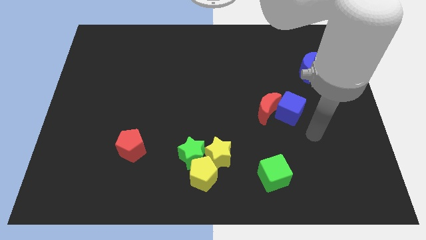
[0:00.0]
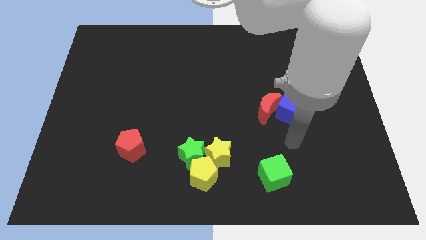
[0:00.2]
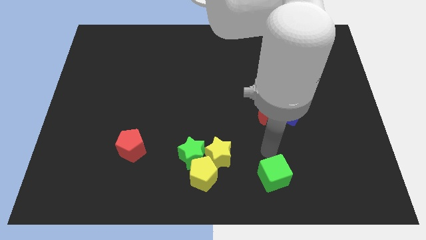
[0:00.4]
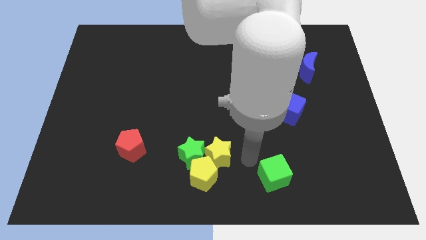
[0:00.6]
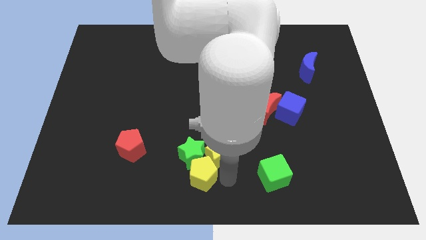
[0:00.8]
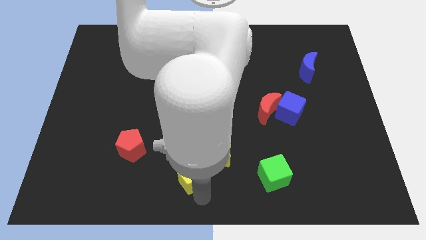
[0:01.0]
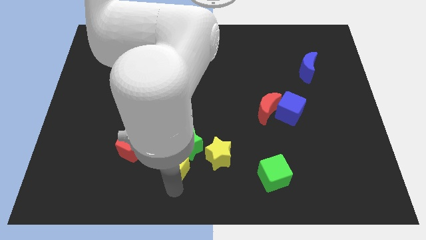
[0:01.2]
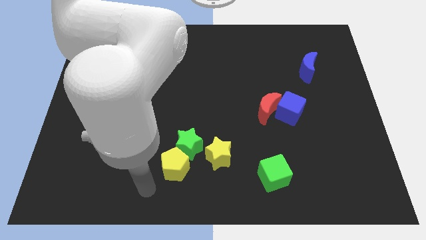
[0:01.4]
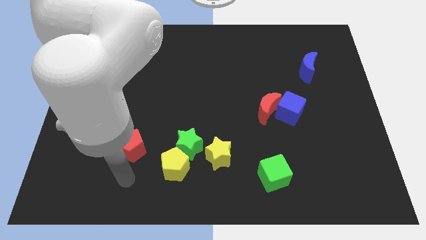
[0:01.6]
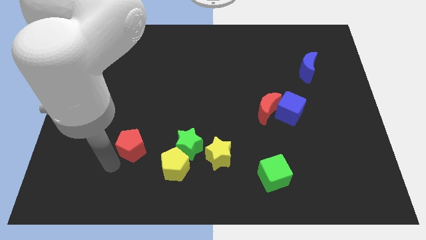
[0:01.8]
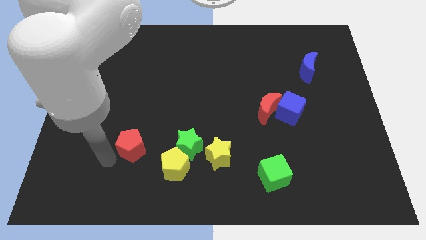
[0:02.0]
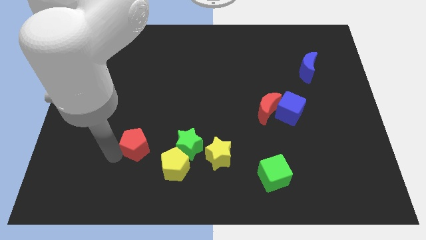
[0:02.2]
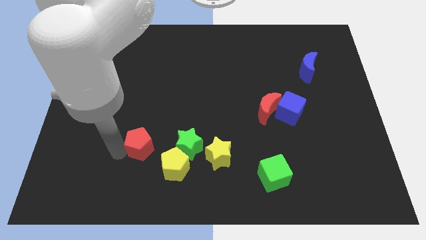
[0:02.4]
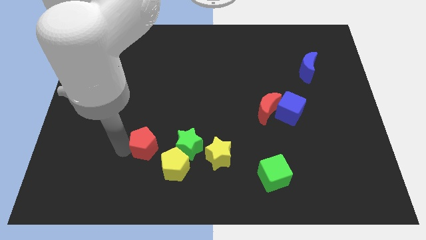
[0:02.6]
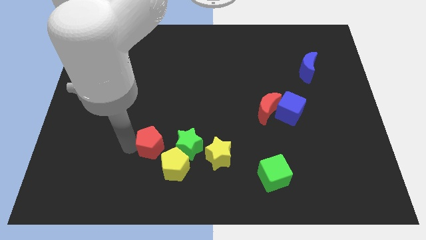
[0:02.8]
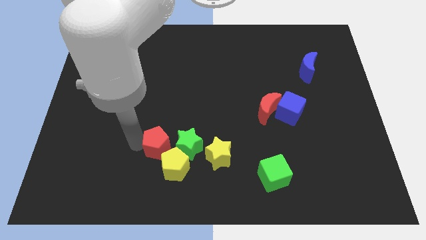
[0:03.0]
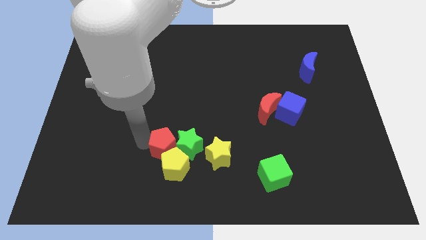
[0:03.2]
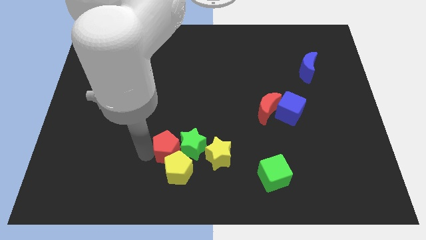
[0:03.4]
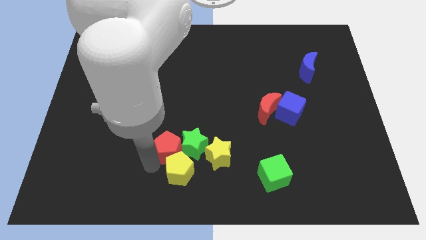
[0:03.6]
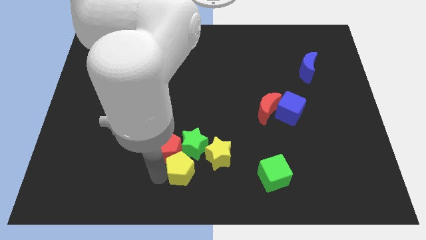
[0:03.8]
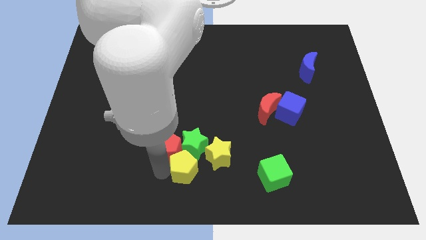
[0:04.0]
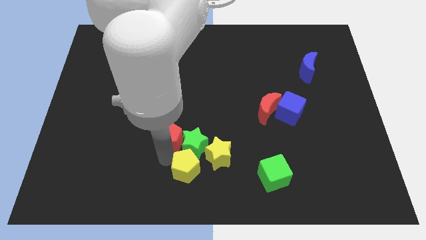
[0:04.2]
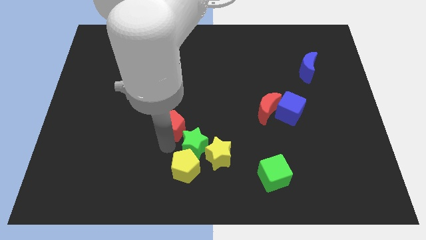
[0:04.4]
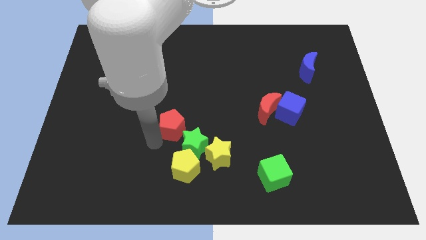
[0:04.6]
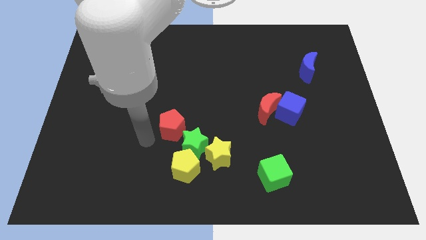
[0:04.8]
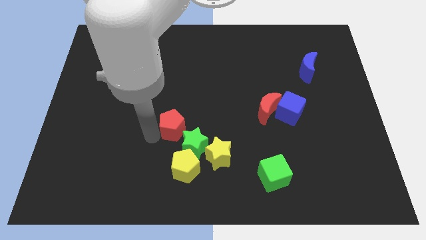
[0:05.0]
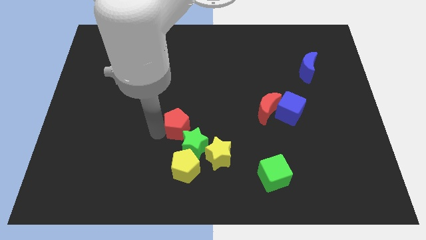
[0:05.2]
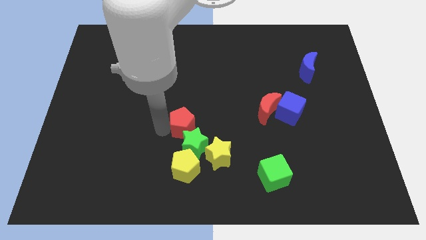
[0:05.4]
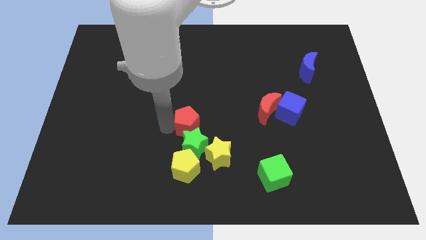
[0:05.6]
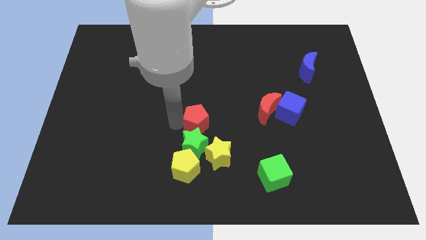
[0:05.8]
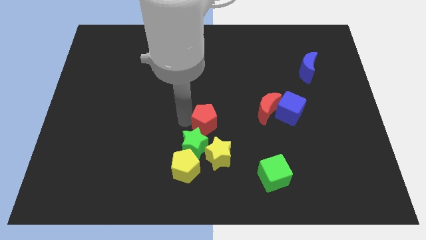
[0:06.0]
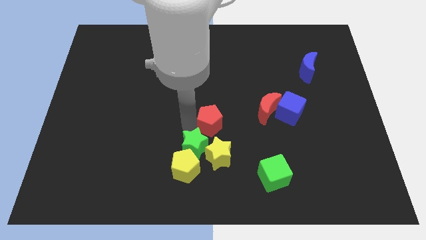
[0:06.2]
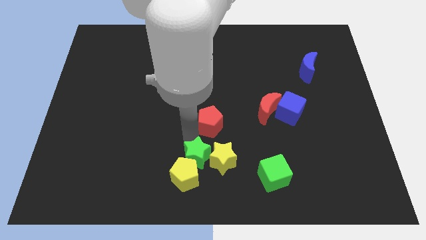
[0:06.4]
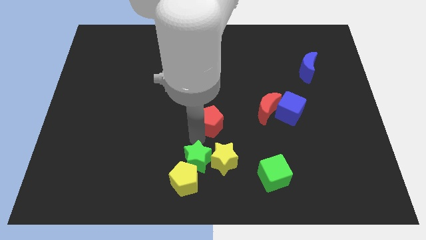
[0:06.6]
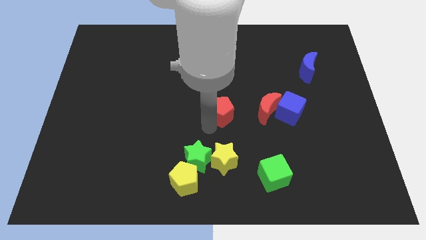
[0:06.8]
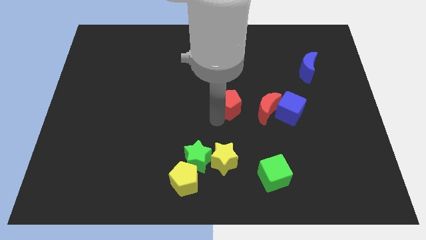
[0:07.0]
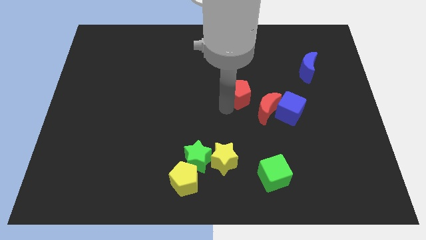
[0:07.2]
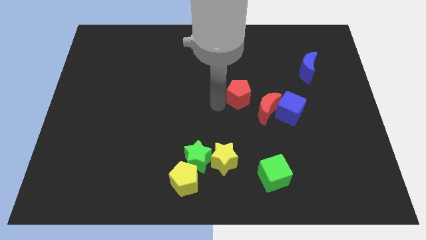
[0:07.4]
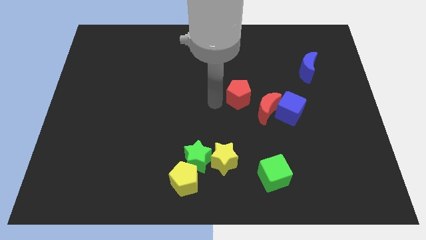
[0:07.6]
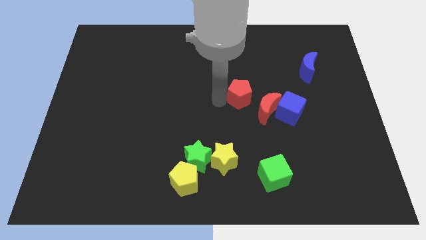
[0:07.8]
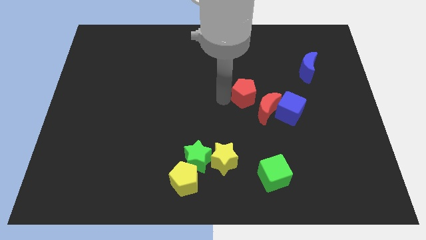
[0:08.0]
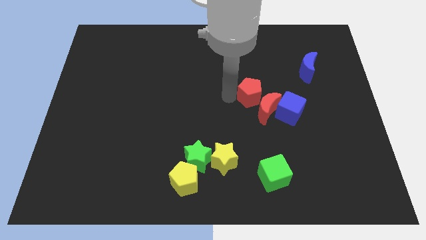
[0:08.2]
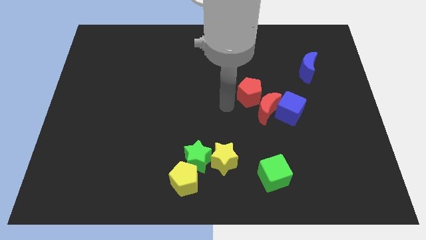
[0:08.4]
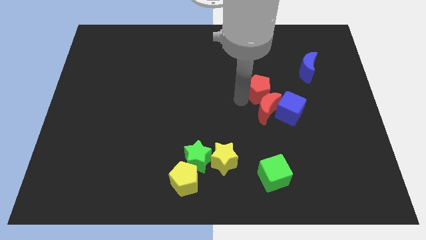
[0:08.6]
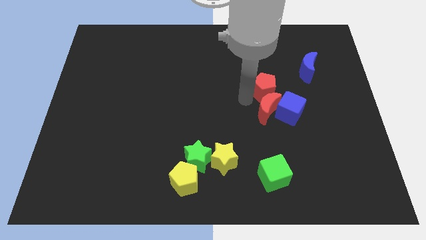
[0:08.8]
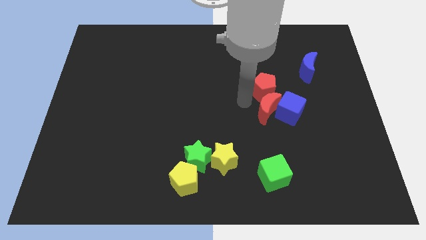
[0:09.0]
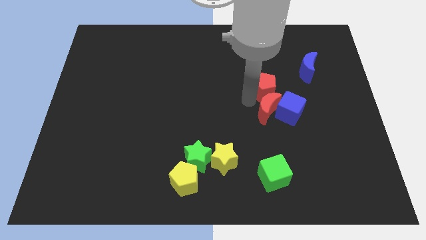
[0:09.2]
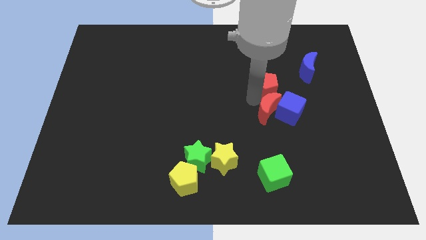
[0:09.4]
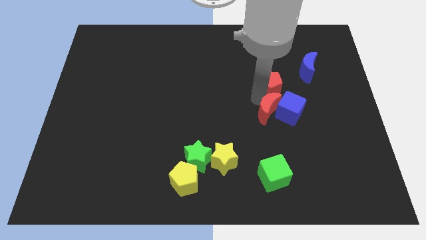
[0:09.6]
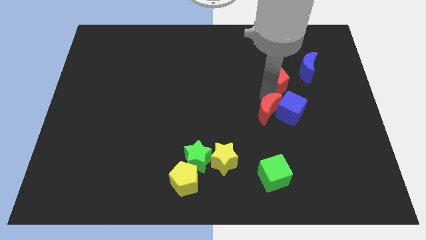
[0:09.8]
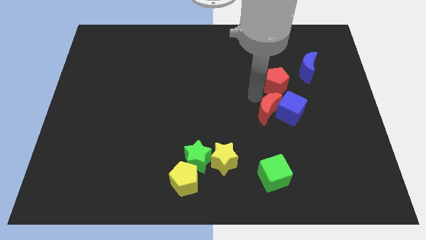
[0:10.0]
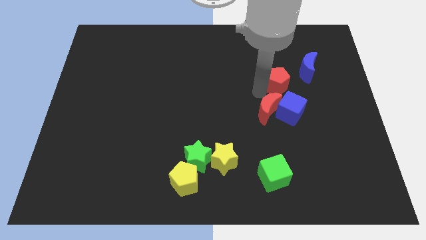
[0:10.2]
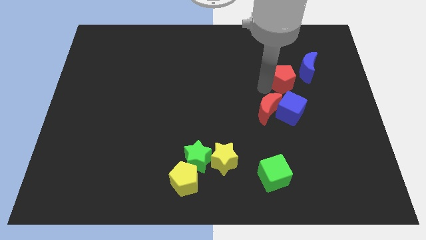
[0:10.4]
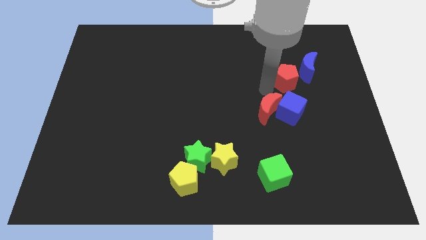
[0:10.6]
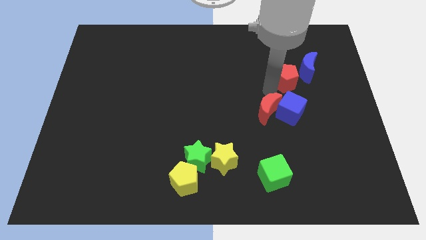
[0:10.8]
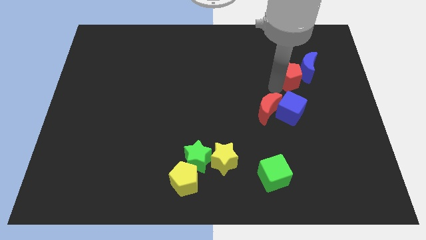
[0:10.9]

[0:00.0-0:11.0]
put the red pentagon to the blue moon

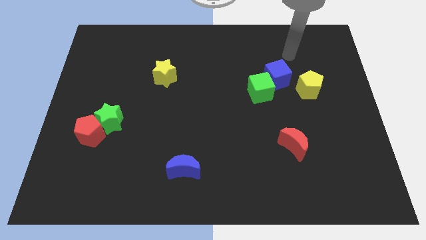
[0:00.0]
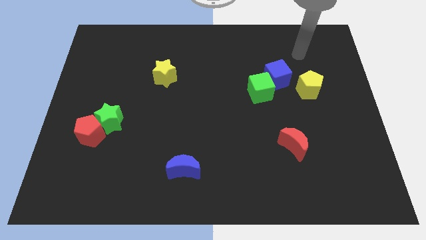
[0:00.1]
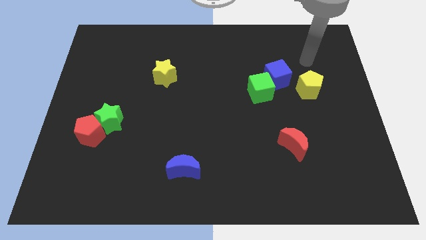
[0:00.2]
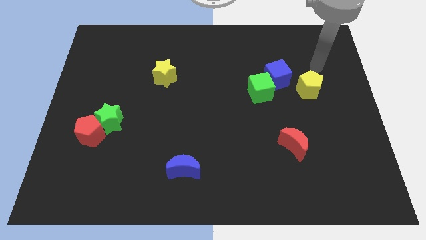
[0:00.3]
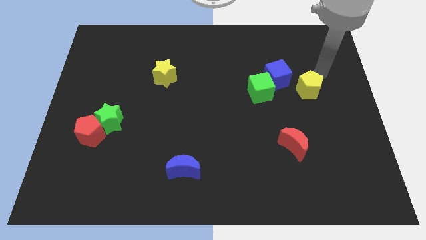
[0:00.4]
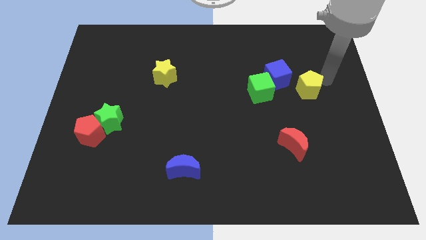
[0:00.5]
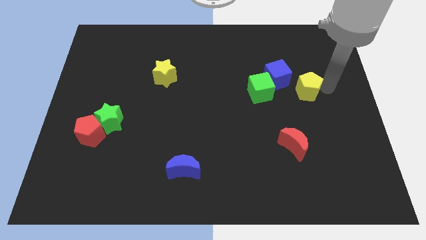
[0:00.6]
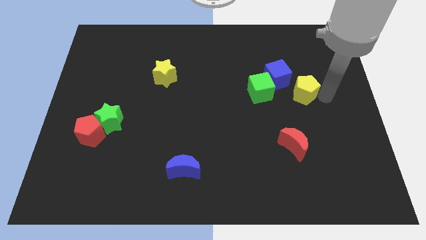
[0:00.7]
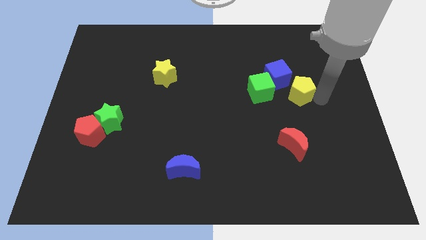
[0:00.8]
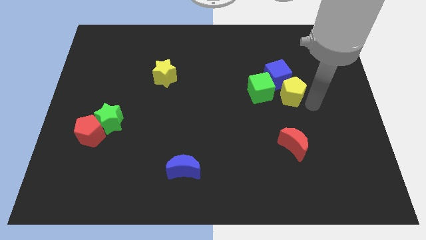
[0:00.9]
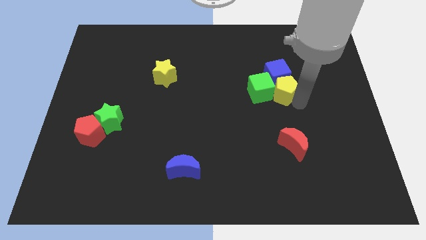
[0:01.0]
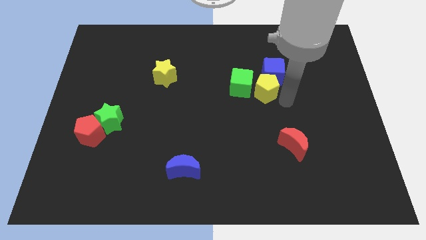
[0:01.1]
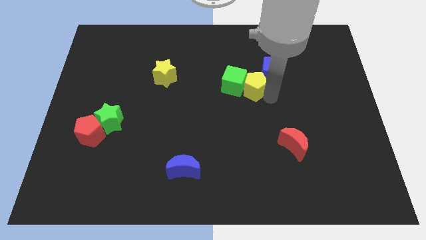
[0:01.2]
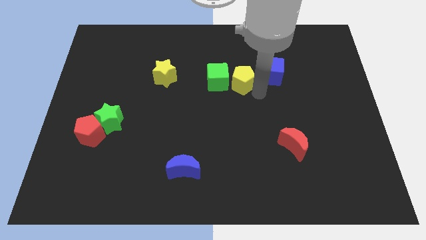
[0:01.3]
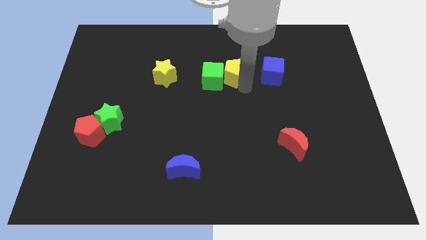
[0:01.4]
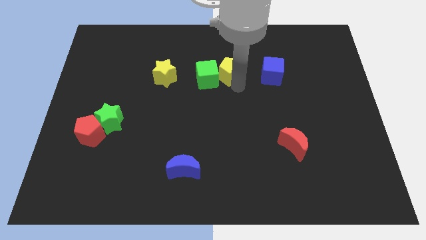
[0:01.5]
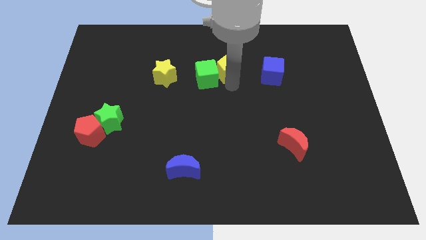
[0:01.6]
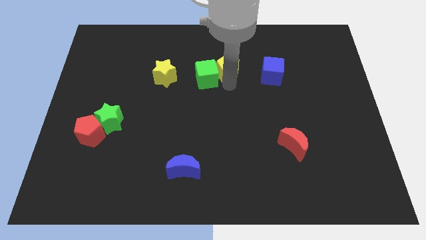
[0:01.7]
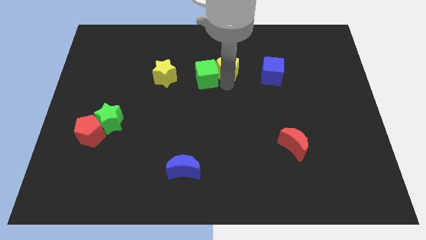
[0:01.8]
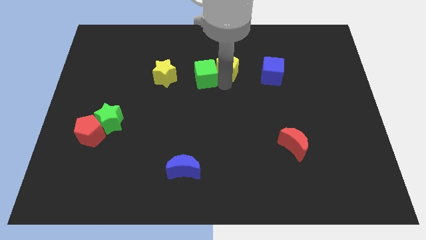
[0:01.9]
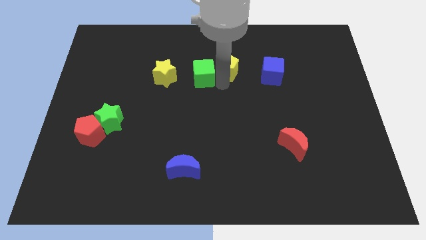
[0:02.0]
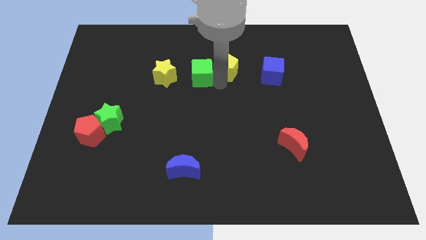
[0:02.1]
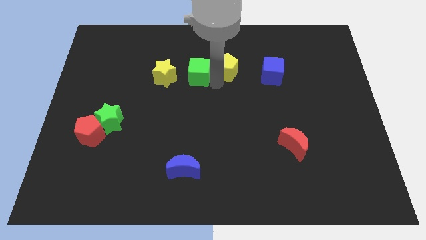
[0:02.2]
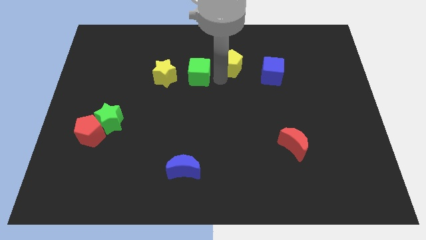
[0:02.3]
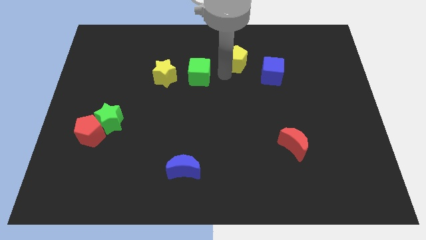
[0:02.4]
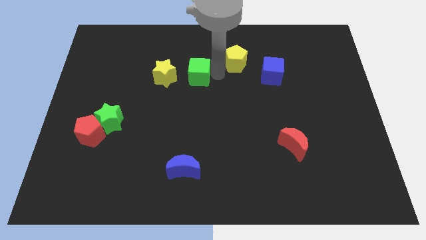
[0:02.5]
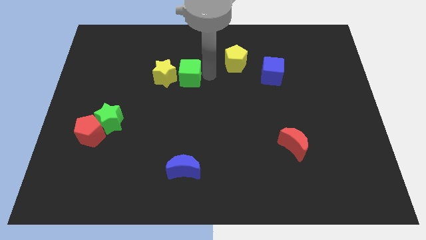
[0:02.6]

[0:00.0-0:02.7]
move the green cube to the yellow star
